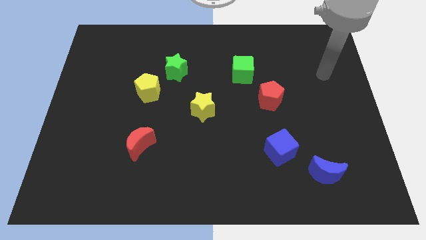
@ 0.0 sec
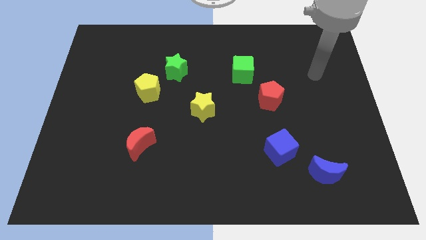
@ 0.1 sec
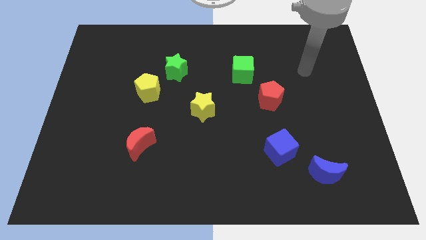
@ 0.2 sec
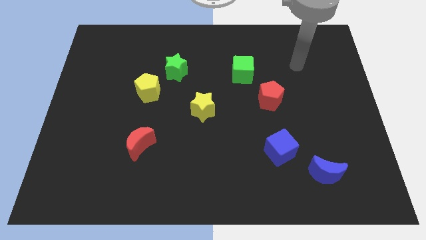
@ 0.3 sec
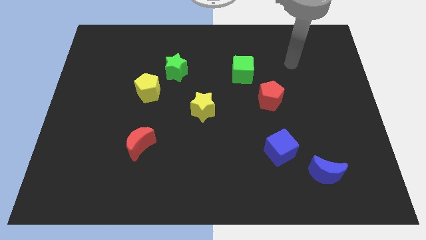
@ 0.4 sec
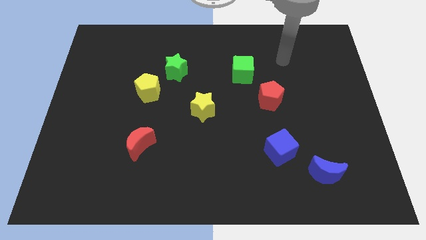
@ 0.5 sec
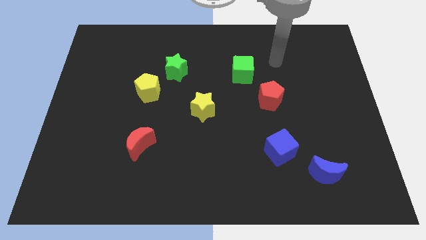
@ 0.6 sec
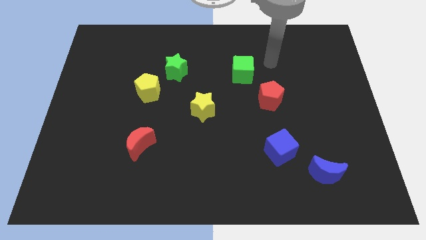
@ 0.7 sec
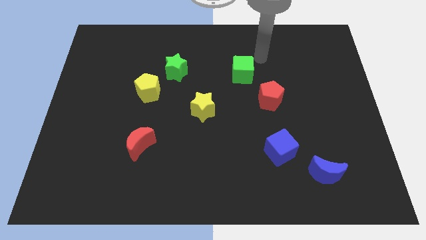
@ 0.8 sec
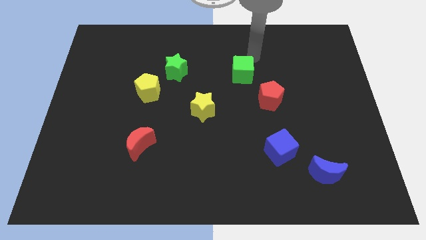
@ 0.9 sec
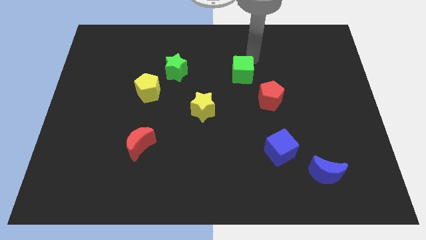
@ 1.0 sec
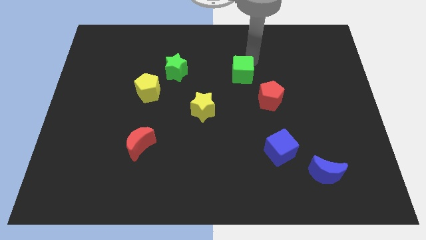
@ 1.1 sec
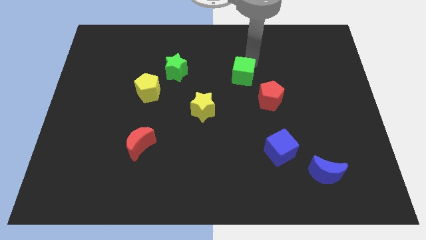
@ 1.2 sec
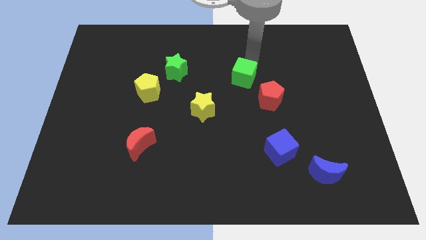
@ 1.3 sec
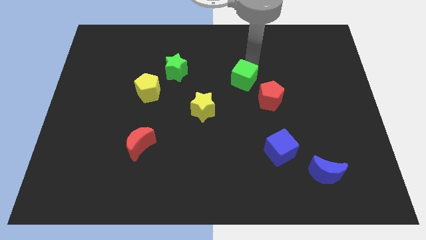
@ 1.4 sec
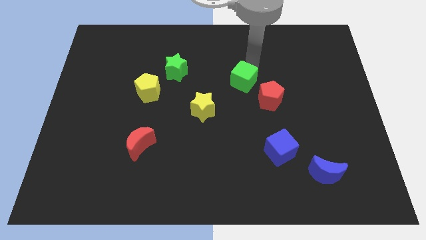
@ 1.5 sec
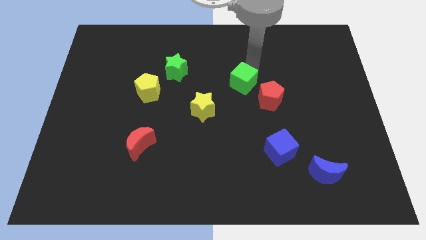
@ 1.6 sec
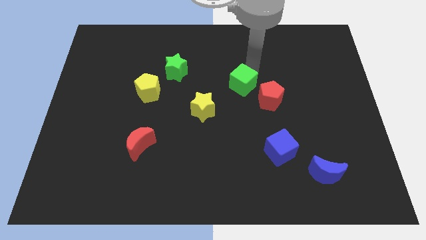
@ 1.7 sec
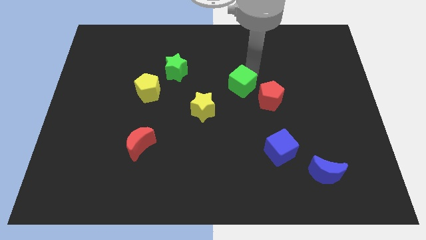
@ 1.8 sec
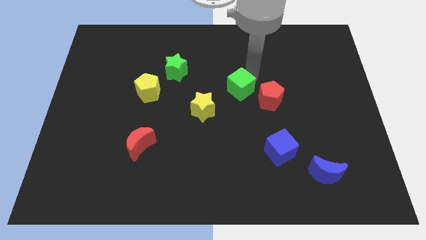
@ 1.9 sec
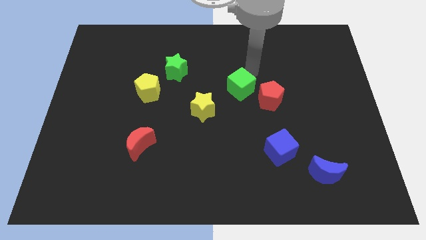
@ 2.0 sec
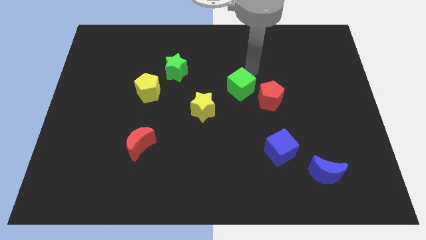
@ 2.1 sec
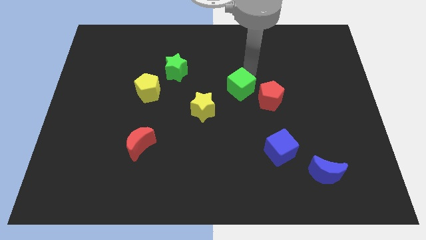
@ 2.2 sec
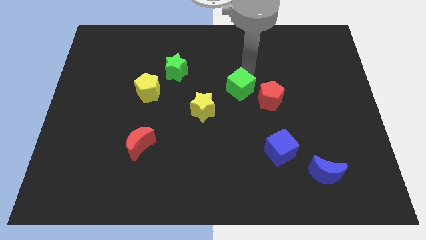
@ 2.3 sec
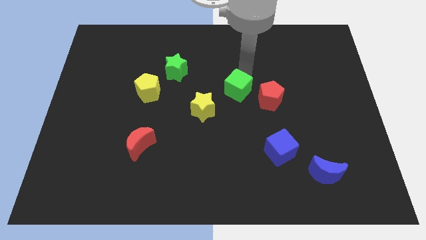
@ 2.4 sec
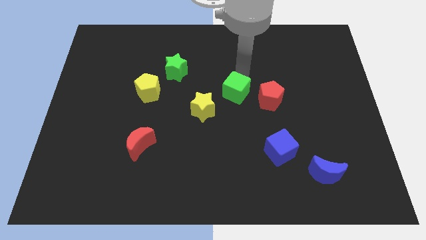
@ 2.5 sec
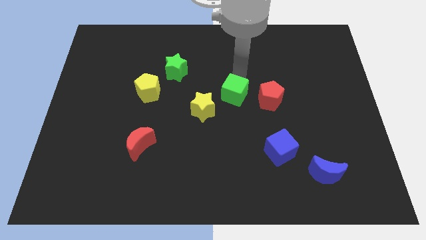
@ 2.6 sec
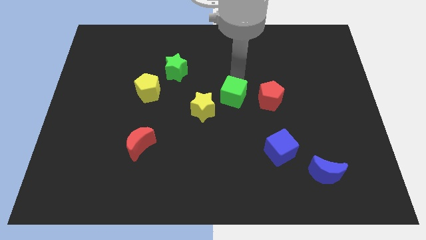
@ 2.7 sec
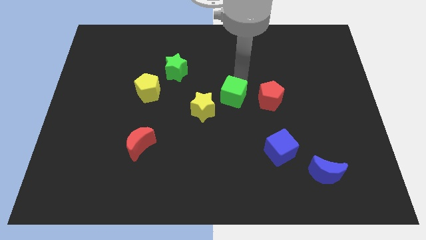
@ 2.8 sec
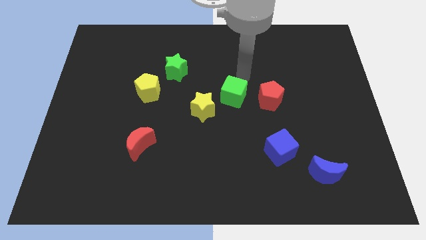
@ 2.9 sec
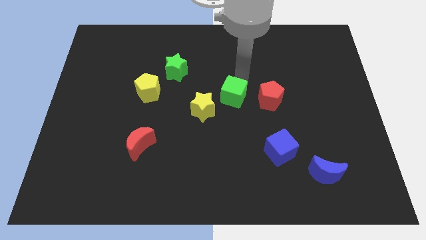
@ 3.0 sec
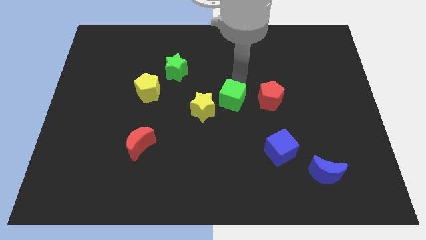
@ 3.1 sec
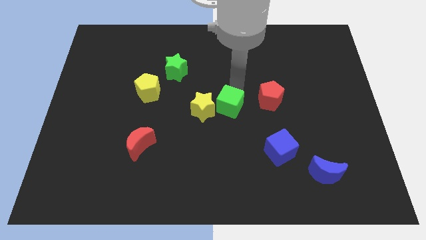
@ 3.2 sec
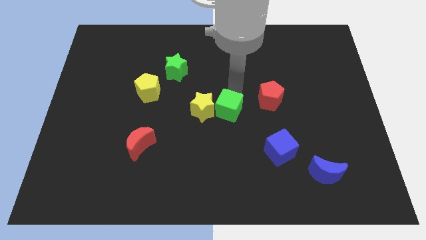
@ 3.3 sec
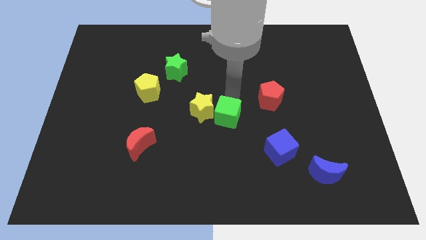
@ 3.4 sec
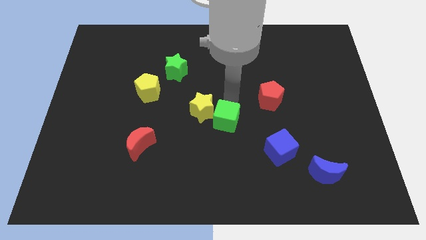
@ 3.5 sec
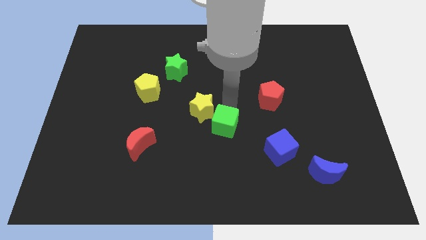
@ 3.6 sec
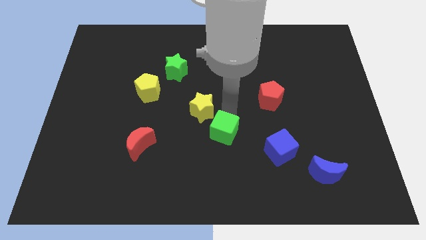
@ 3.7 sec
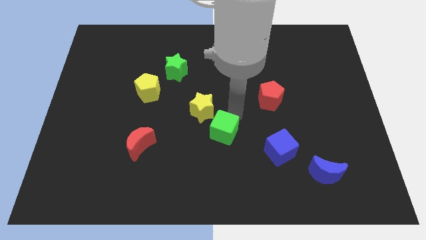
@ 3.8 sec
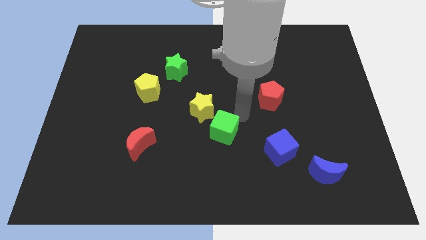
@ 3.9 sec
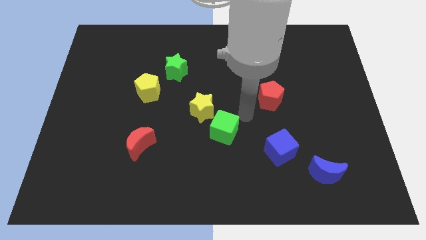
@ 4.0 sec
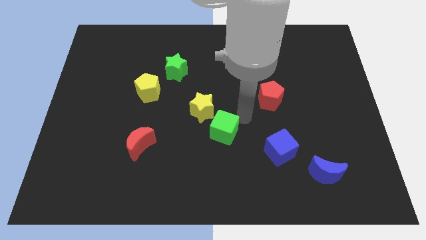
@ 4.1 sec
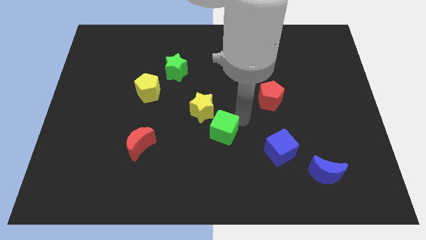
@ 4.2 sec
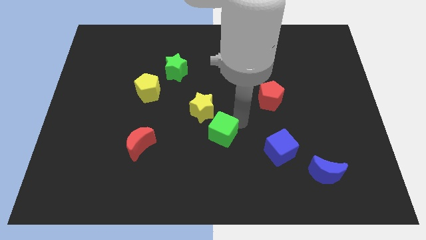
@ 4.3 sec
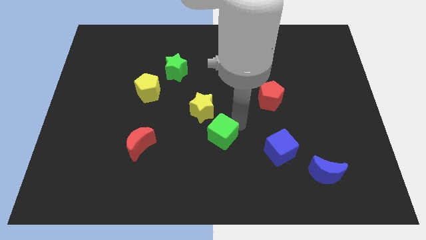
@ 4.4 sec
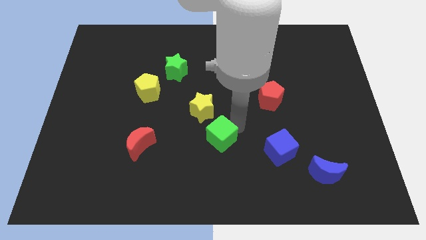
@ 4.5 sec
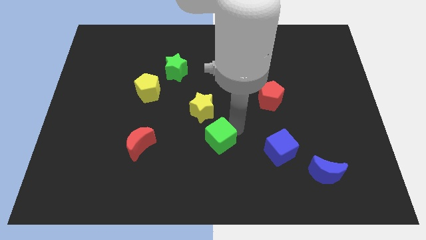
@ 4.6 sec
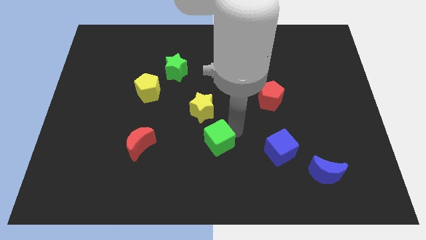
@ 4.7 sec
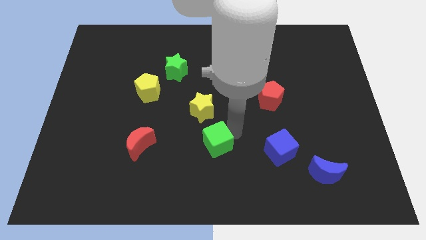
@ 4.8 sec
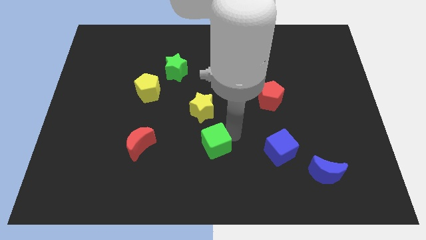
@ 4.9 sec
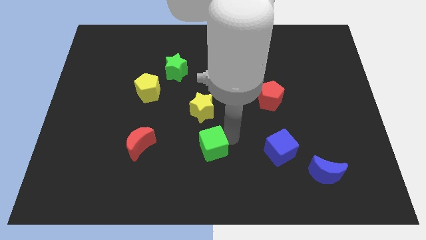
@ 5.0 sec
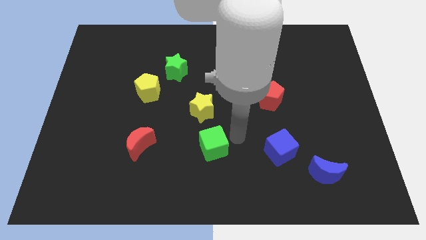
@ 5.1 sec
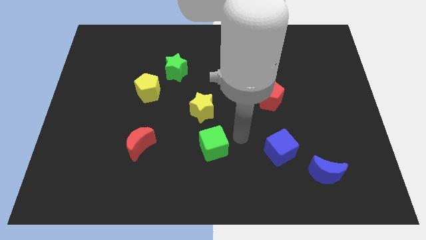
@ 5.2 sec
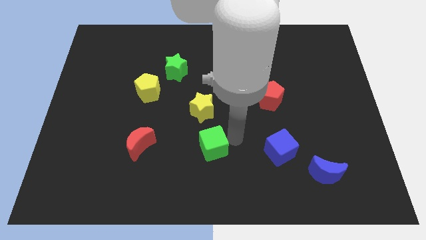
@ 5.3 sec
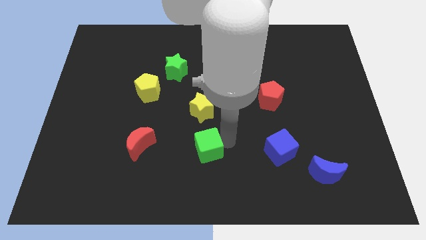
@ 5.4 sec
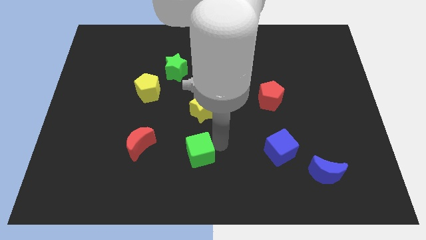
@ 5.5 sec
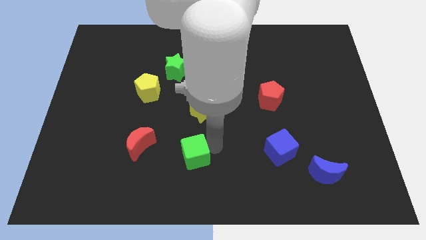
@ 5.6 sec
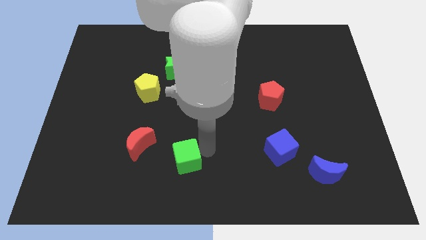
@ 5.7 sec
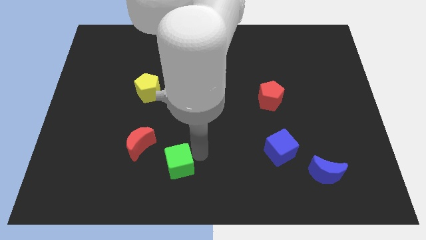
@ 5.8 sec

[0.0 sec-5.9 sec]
put the green cube to the bottom right of the red moon
